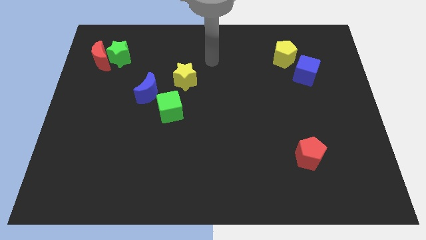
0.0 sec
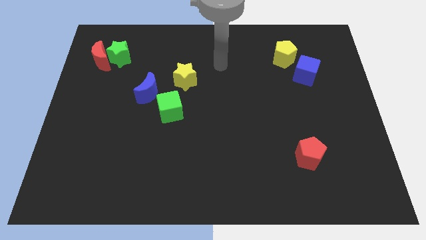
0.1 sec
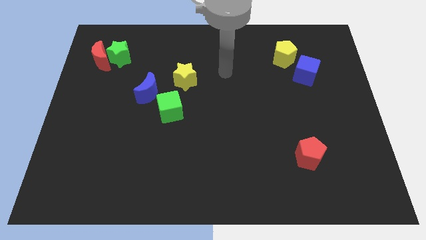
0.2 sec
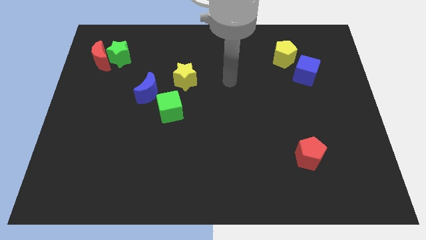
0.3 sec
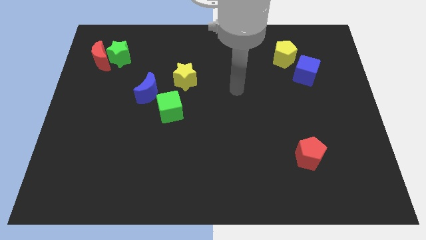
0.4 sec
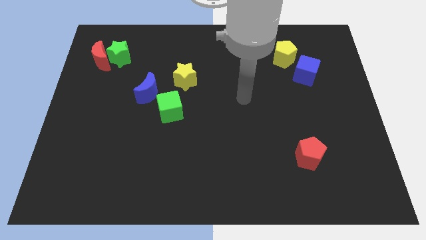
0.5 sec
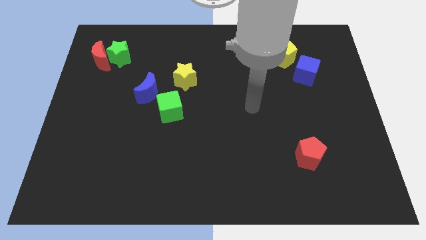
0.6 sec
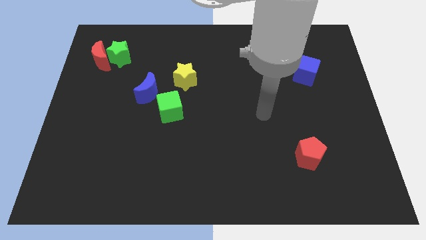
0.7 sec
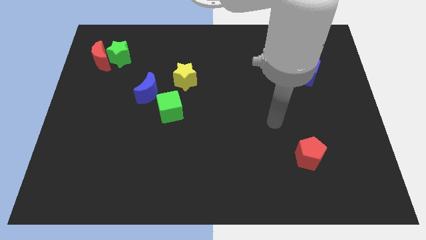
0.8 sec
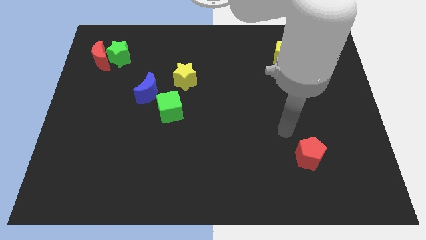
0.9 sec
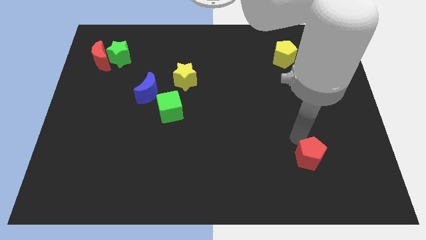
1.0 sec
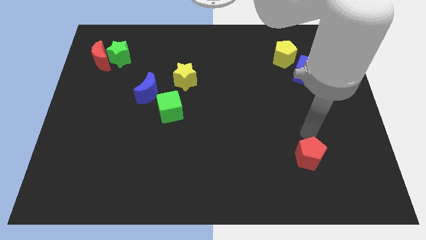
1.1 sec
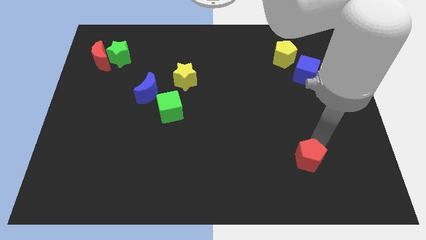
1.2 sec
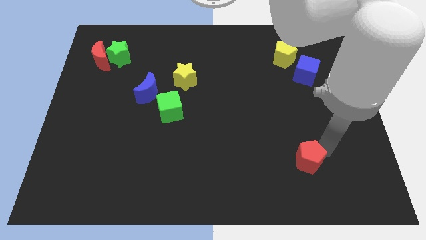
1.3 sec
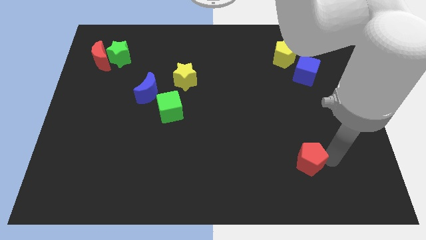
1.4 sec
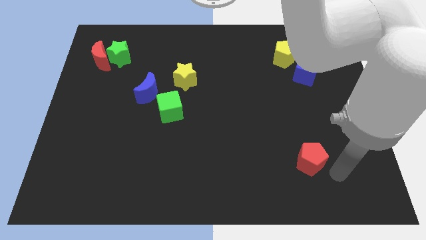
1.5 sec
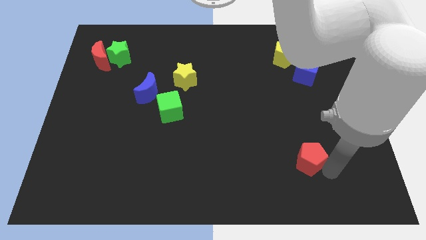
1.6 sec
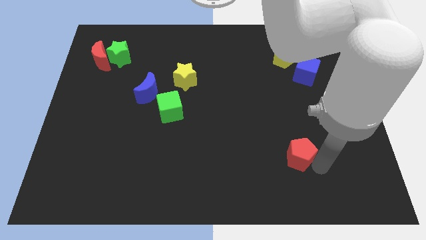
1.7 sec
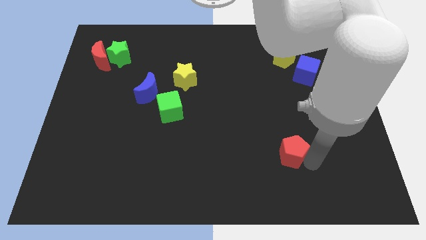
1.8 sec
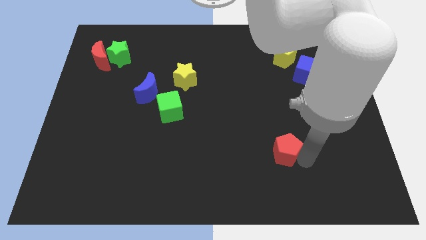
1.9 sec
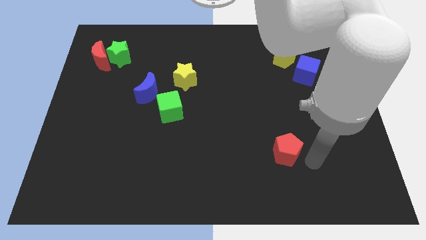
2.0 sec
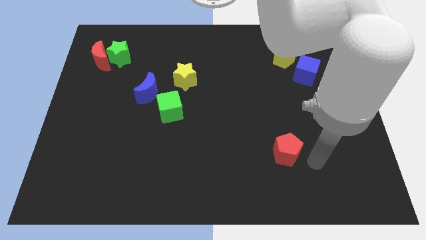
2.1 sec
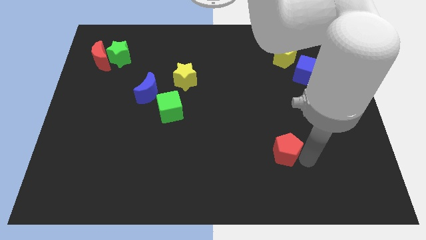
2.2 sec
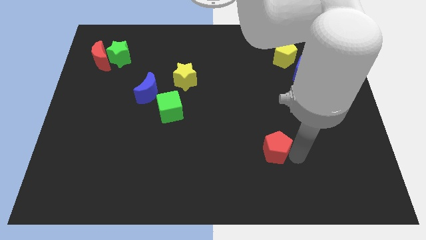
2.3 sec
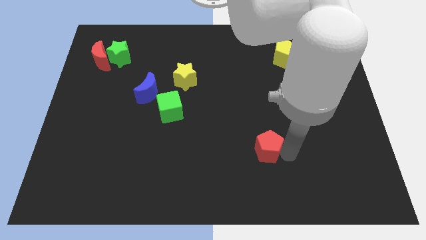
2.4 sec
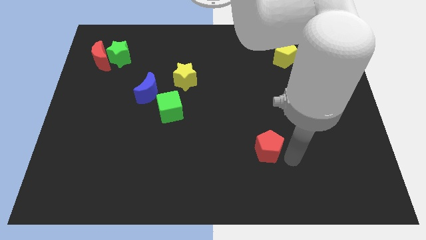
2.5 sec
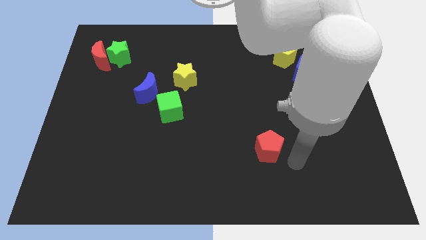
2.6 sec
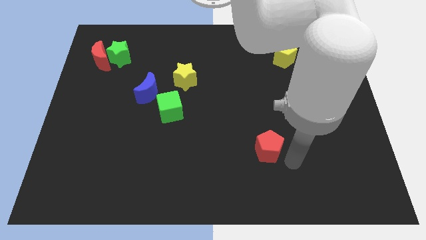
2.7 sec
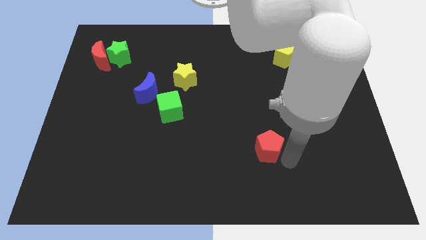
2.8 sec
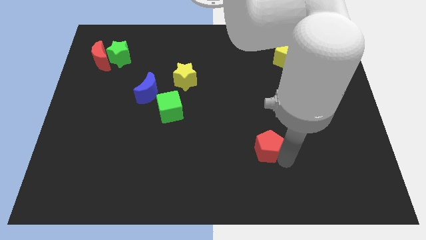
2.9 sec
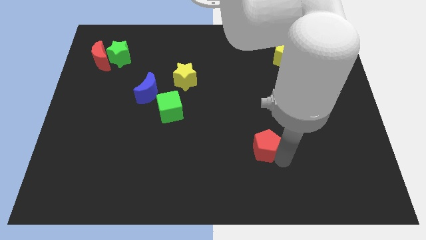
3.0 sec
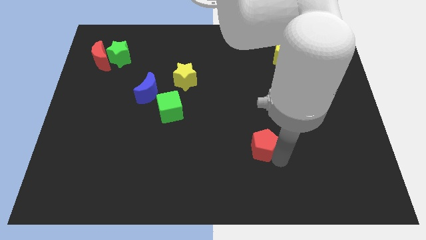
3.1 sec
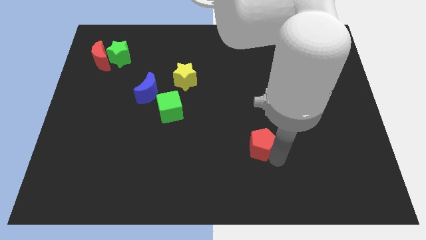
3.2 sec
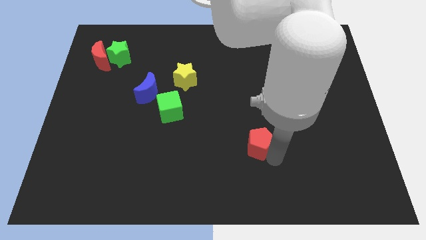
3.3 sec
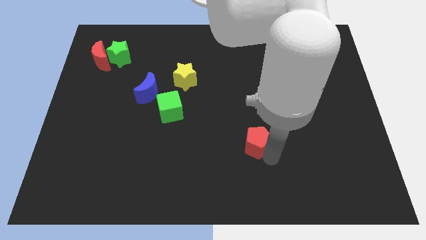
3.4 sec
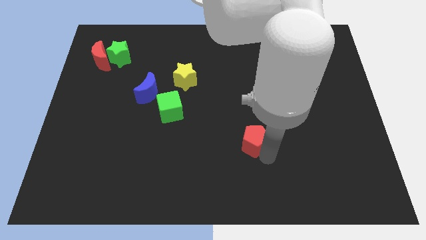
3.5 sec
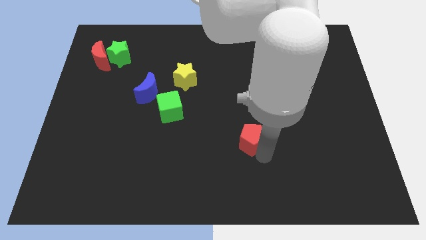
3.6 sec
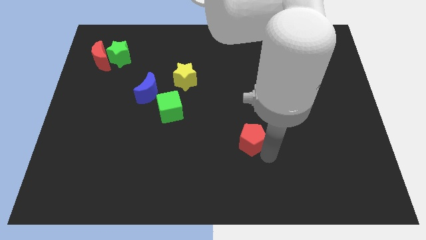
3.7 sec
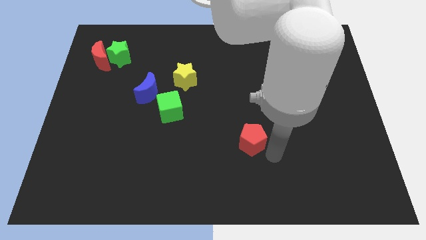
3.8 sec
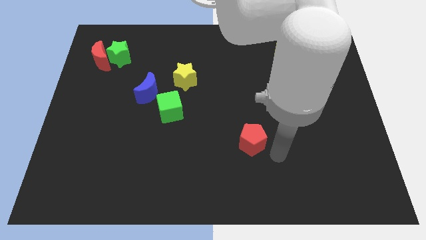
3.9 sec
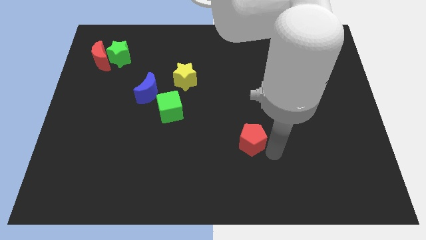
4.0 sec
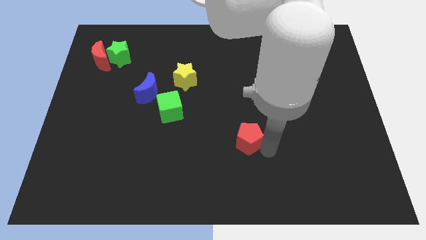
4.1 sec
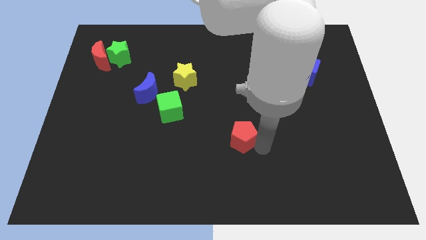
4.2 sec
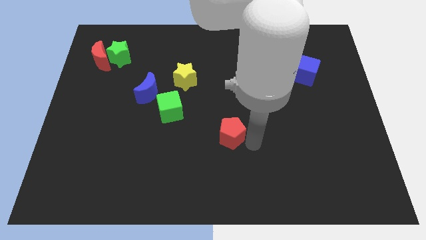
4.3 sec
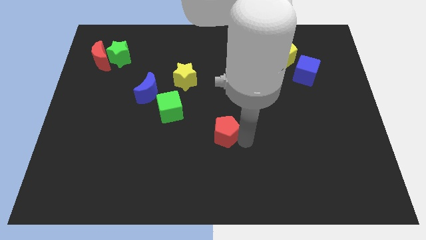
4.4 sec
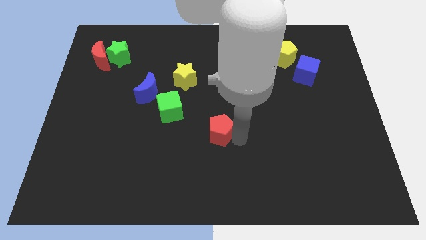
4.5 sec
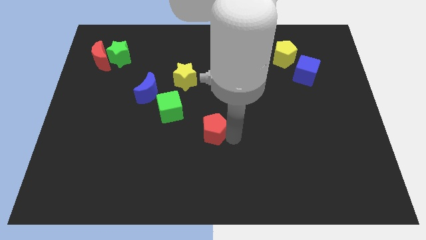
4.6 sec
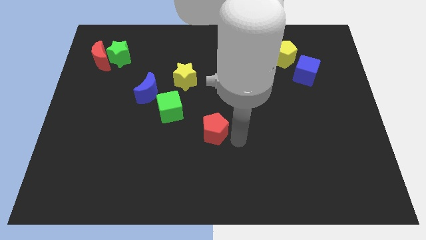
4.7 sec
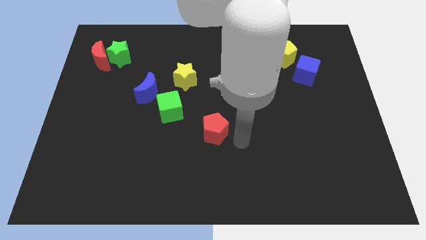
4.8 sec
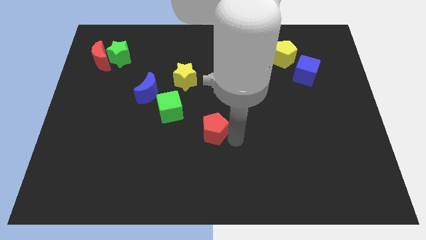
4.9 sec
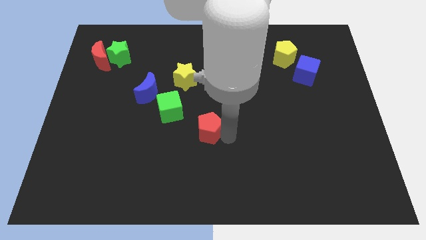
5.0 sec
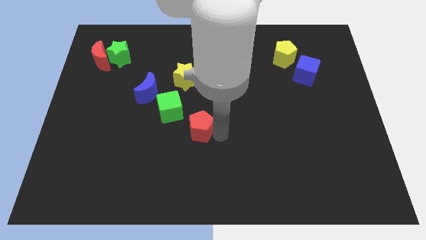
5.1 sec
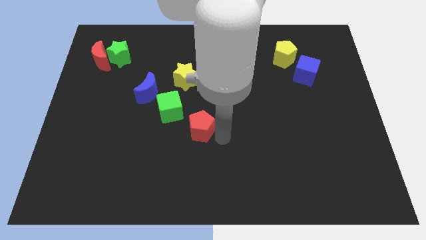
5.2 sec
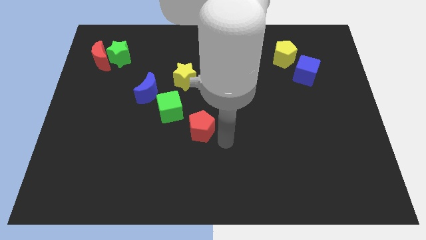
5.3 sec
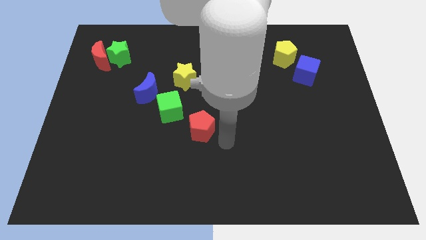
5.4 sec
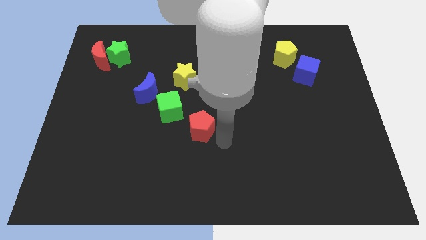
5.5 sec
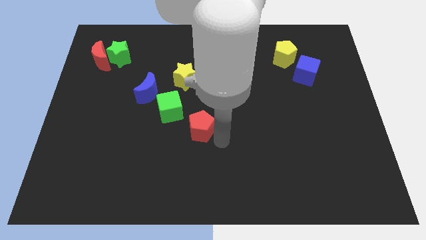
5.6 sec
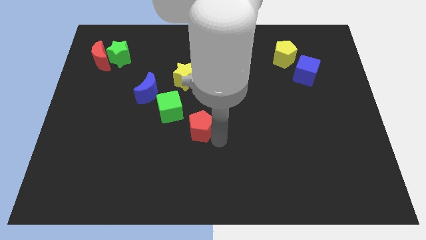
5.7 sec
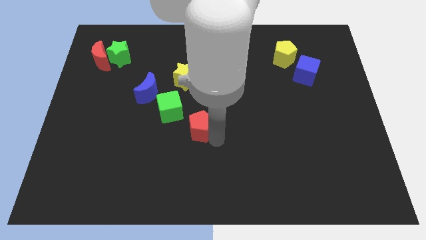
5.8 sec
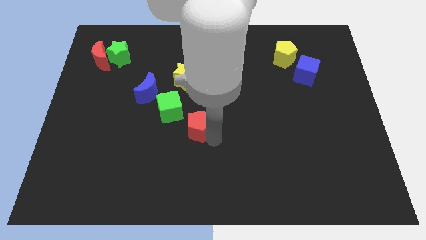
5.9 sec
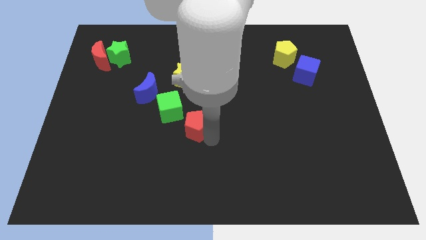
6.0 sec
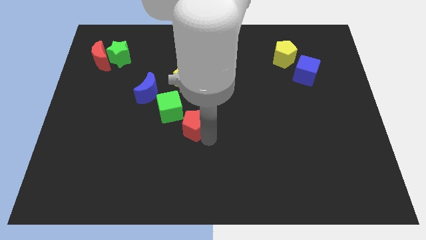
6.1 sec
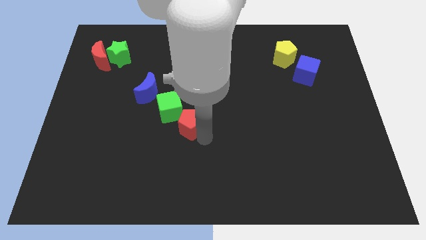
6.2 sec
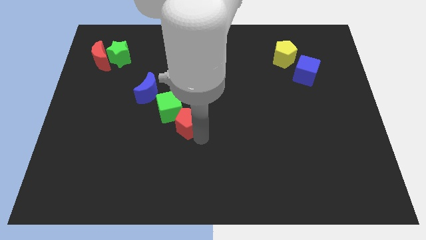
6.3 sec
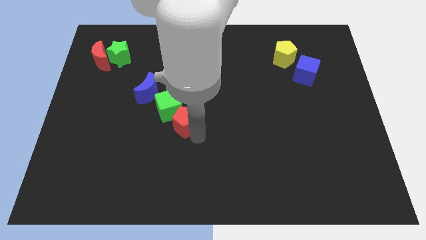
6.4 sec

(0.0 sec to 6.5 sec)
move the red pentagon close to the green cube

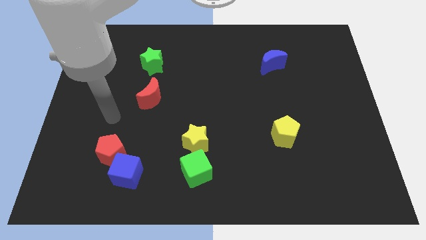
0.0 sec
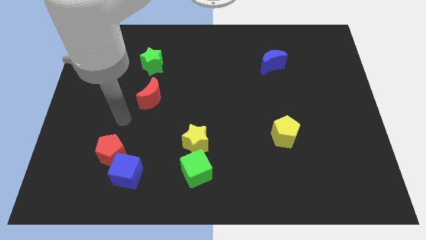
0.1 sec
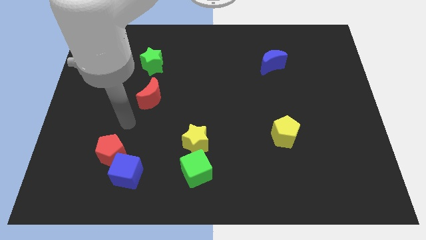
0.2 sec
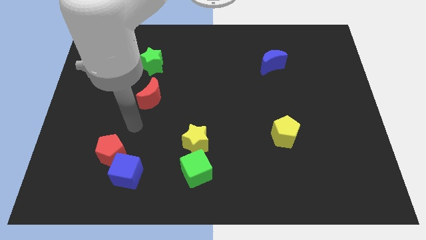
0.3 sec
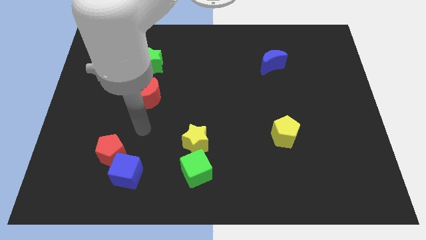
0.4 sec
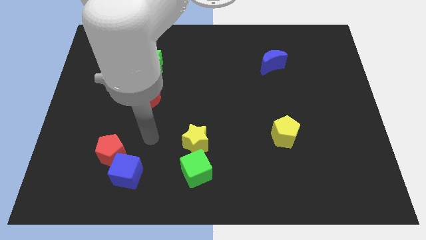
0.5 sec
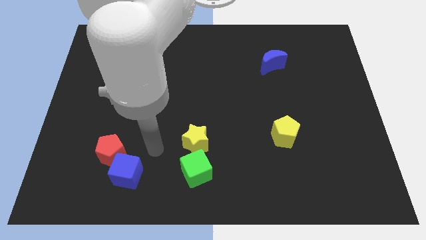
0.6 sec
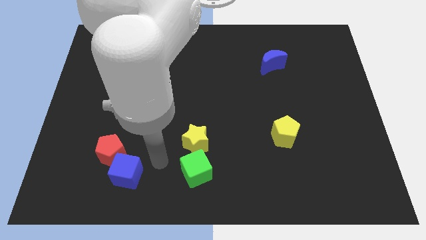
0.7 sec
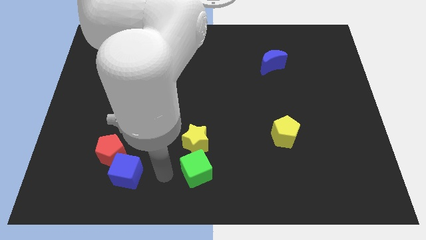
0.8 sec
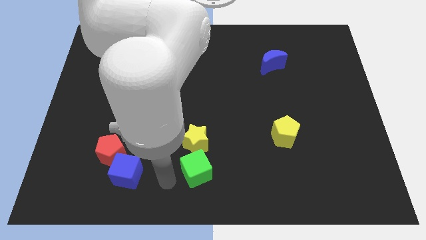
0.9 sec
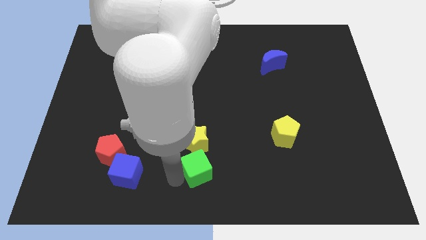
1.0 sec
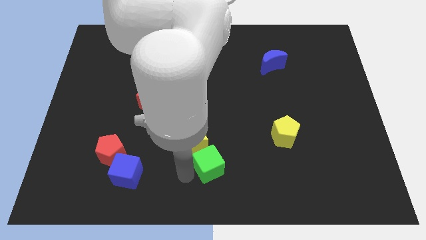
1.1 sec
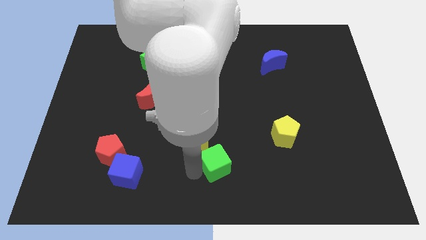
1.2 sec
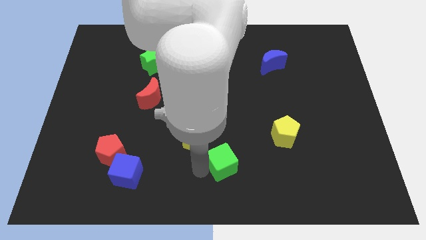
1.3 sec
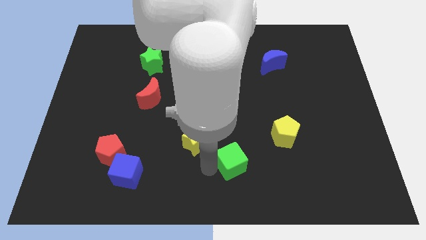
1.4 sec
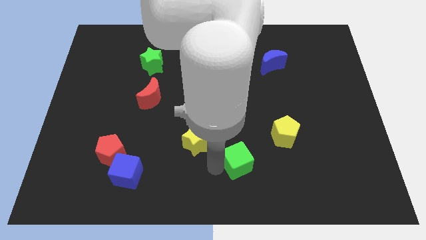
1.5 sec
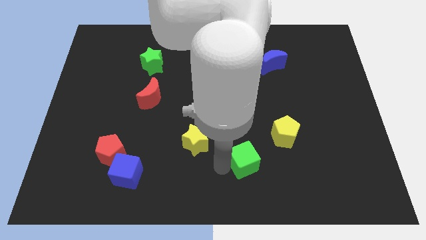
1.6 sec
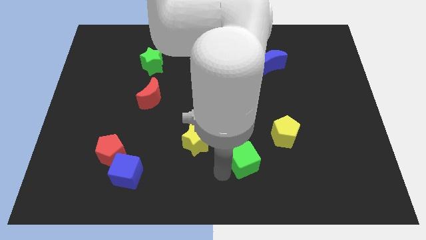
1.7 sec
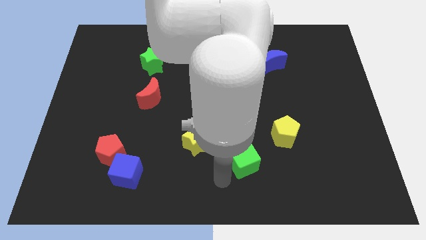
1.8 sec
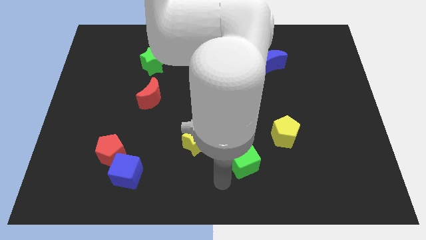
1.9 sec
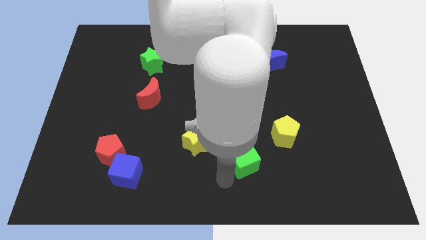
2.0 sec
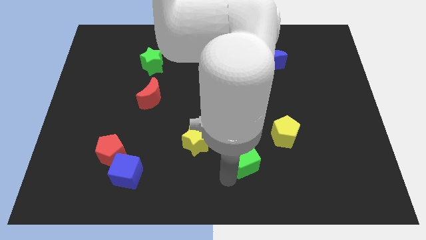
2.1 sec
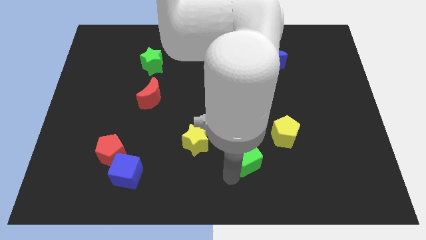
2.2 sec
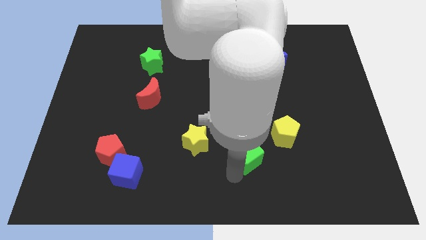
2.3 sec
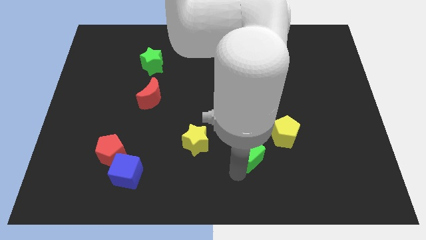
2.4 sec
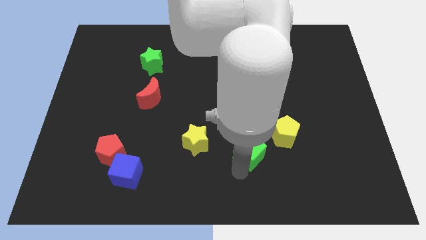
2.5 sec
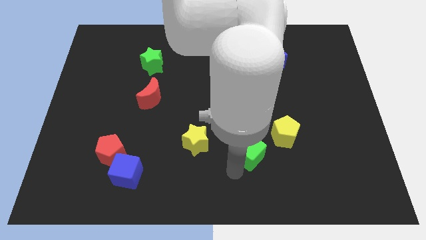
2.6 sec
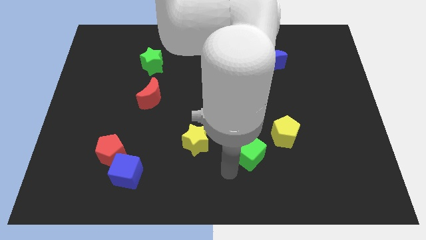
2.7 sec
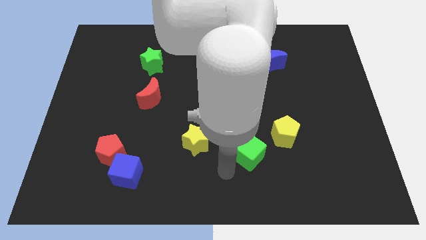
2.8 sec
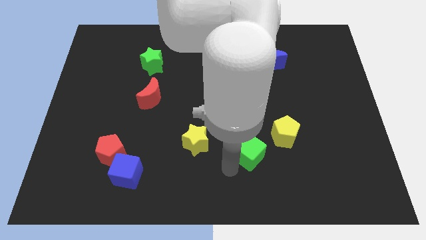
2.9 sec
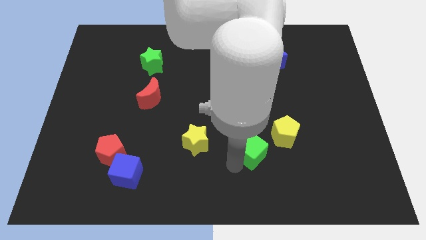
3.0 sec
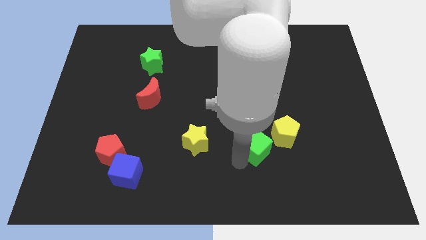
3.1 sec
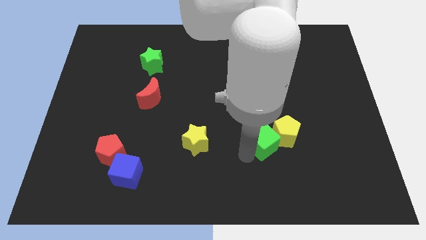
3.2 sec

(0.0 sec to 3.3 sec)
put the green cube next to the yellow pentagon
